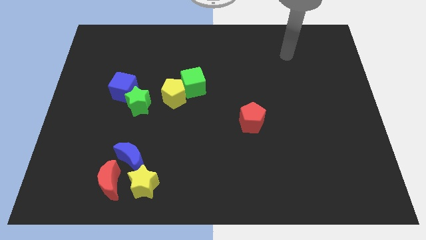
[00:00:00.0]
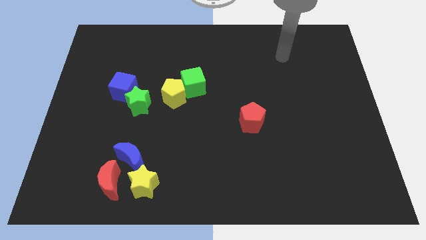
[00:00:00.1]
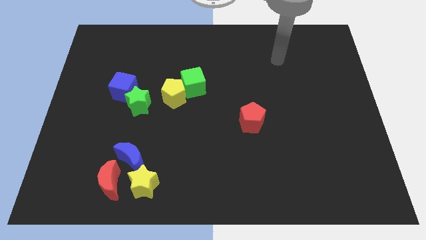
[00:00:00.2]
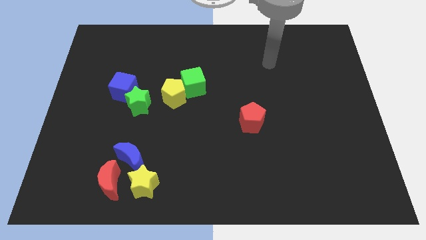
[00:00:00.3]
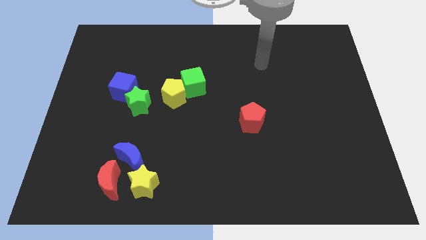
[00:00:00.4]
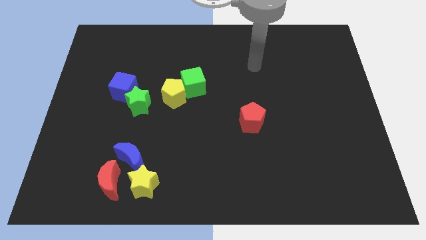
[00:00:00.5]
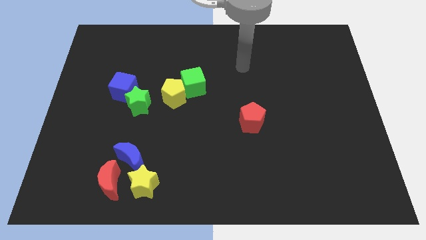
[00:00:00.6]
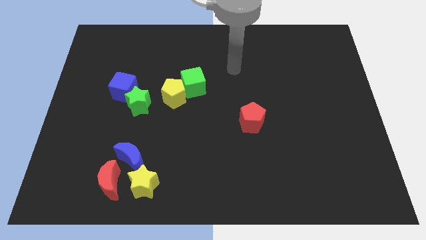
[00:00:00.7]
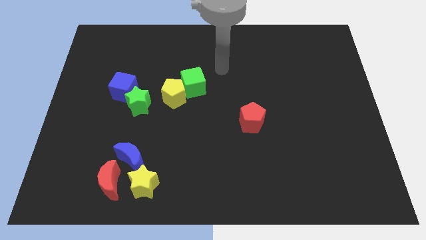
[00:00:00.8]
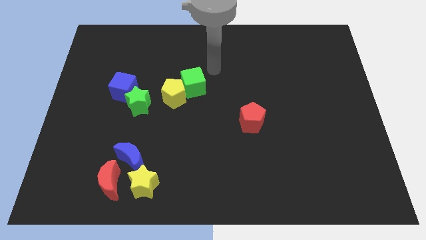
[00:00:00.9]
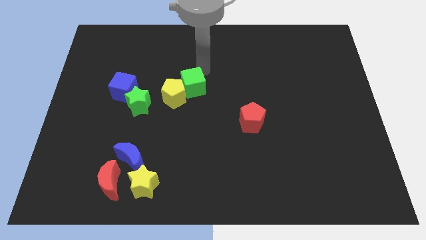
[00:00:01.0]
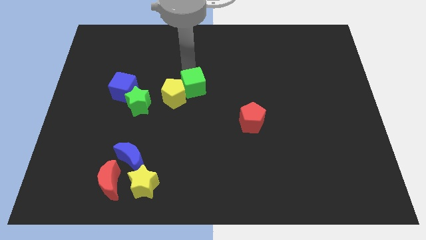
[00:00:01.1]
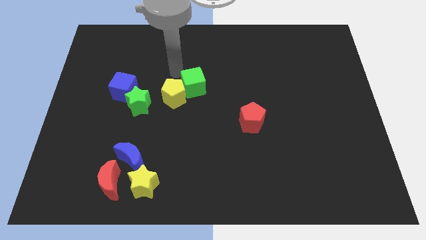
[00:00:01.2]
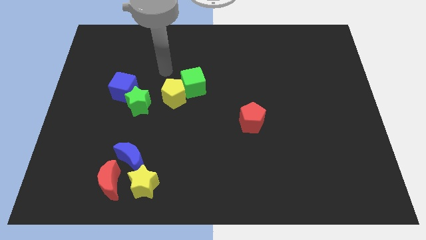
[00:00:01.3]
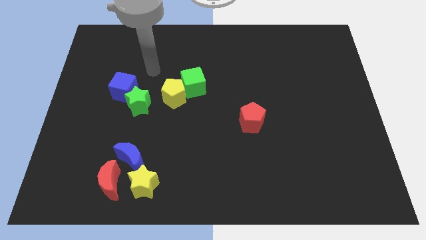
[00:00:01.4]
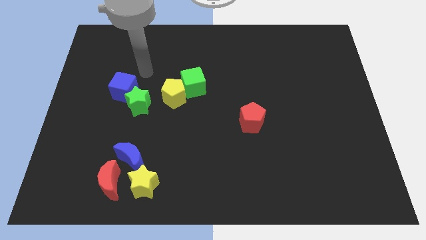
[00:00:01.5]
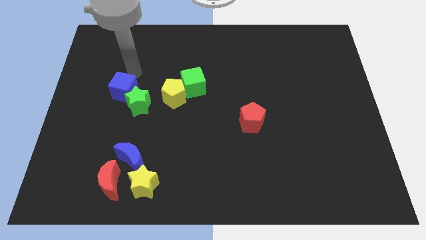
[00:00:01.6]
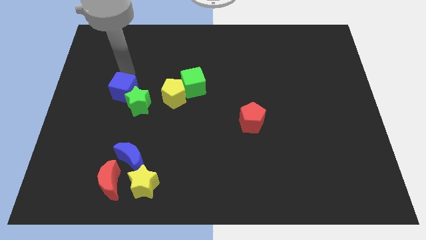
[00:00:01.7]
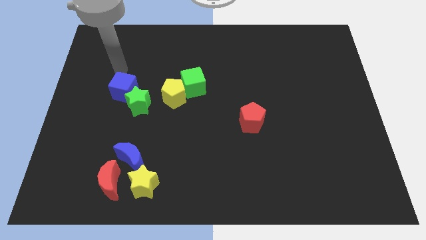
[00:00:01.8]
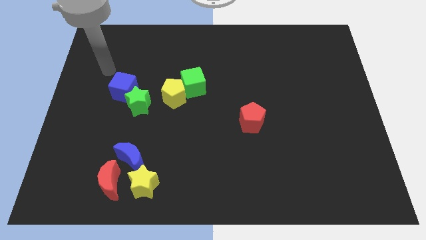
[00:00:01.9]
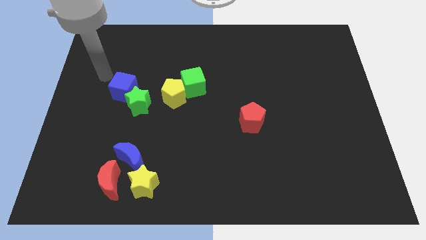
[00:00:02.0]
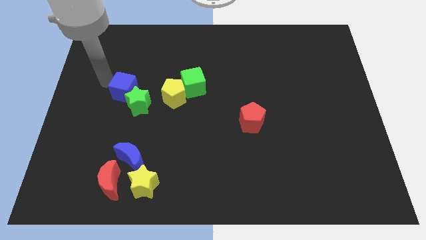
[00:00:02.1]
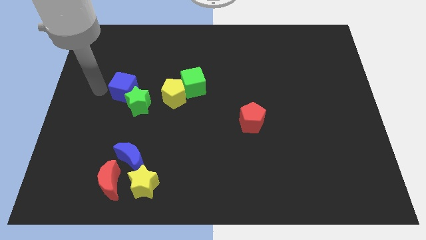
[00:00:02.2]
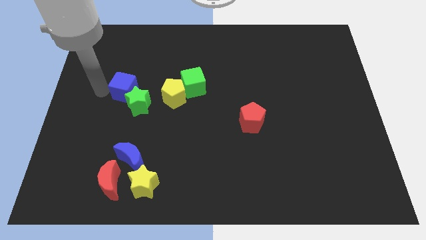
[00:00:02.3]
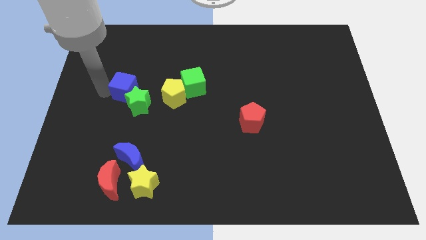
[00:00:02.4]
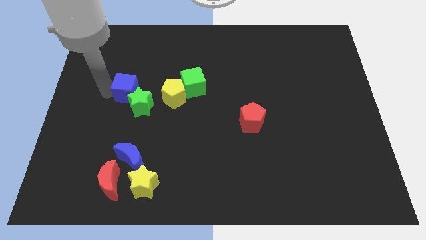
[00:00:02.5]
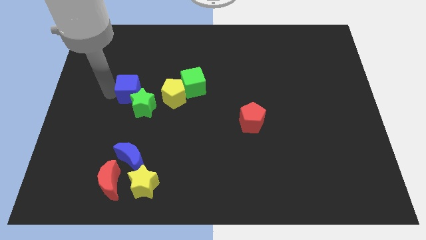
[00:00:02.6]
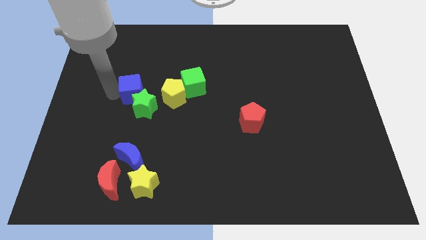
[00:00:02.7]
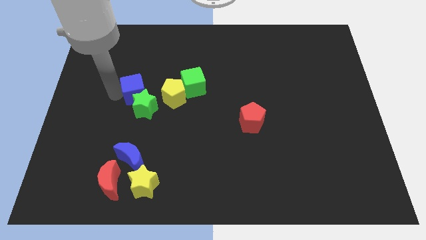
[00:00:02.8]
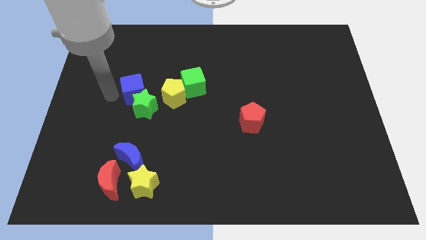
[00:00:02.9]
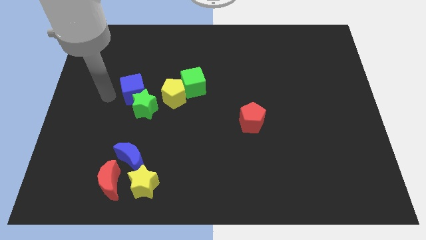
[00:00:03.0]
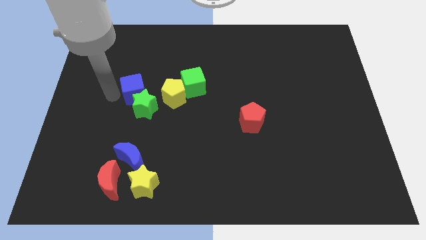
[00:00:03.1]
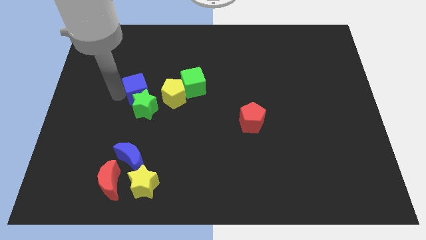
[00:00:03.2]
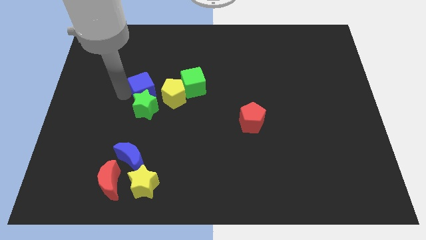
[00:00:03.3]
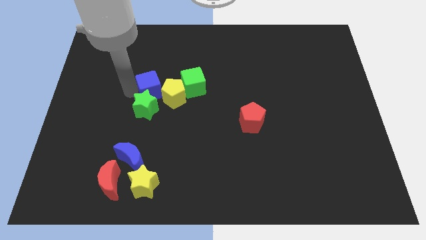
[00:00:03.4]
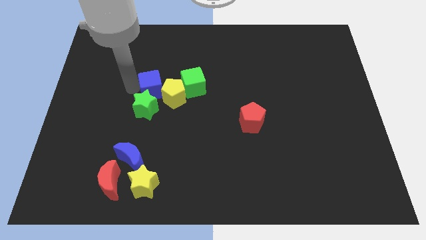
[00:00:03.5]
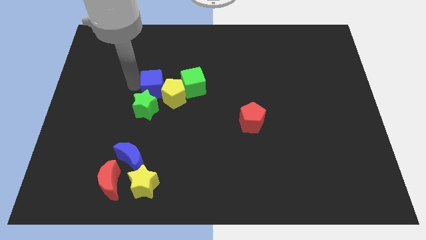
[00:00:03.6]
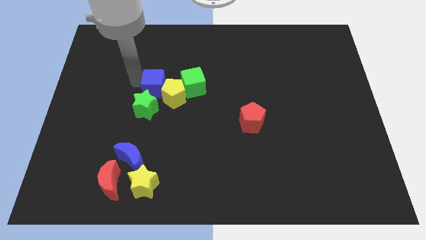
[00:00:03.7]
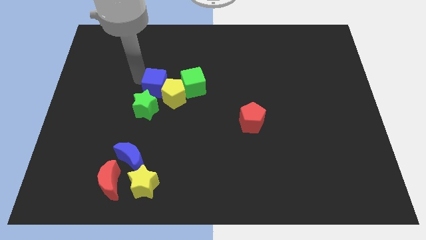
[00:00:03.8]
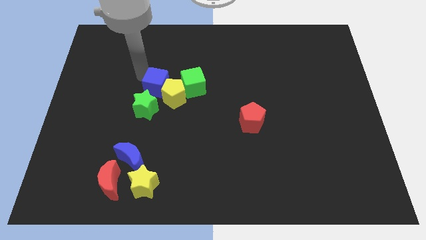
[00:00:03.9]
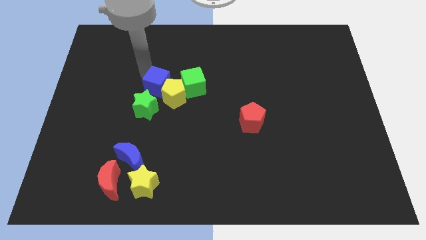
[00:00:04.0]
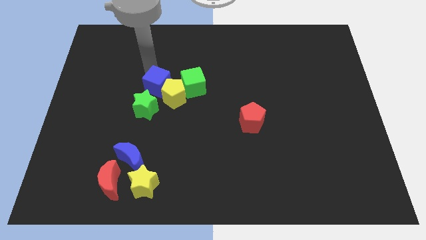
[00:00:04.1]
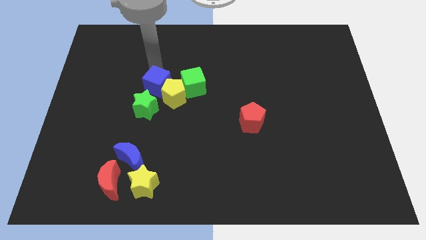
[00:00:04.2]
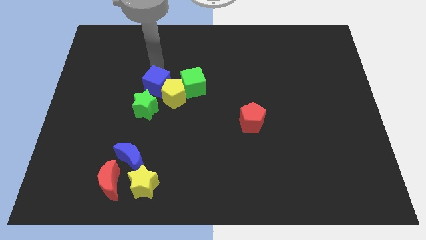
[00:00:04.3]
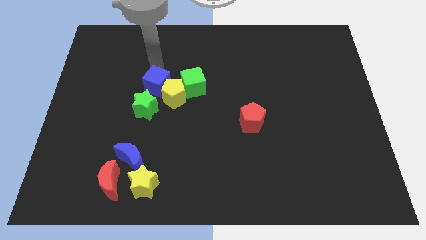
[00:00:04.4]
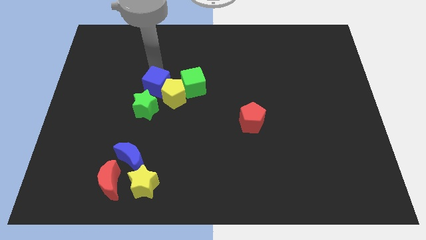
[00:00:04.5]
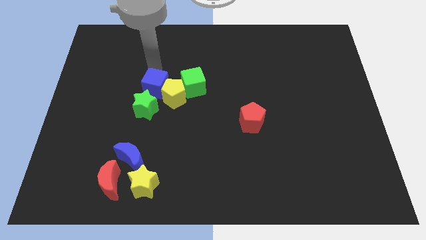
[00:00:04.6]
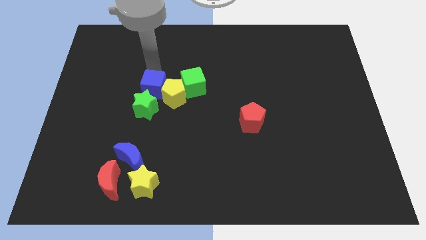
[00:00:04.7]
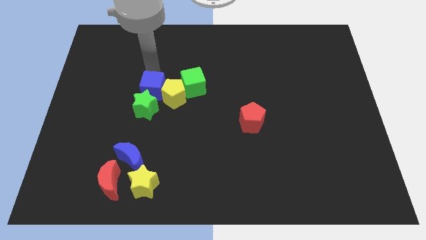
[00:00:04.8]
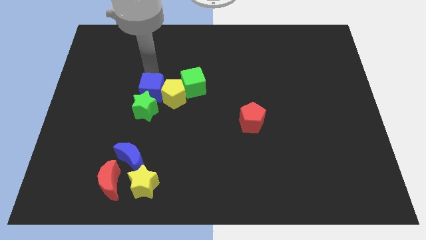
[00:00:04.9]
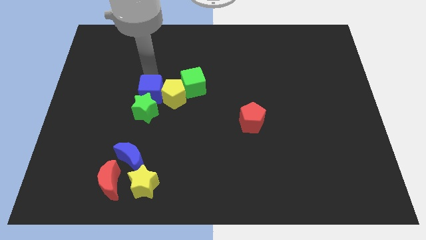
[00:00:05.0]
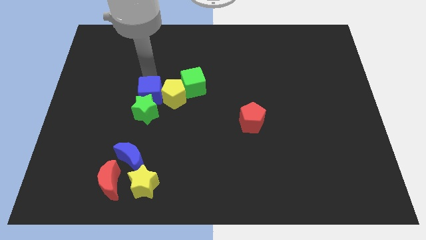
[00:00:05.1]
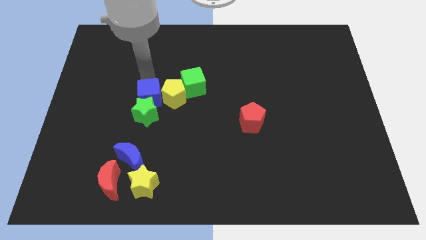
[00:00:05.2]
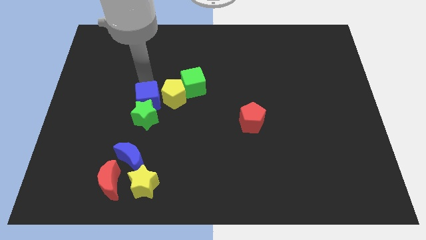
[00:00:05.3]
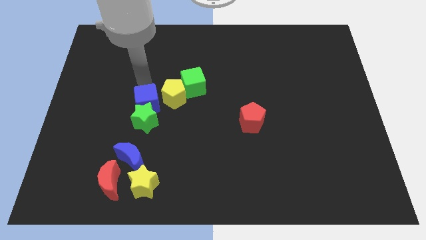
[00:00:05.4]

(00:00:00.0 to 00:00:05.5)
move the blue cube a little diagonally down and to the right

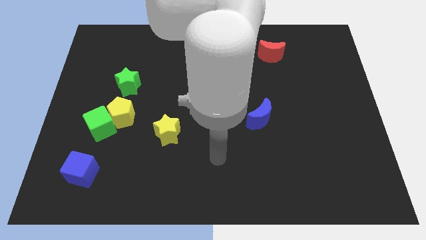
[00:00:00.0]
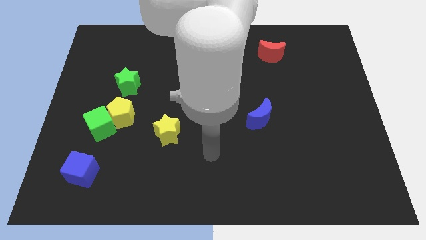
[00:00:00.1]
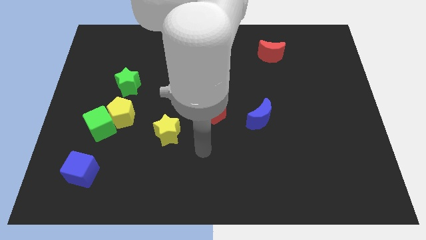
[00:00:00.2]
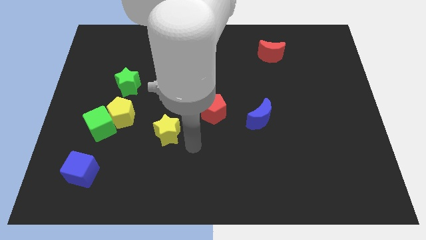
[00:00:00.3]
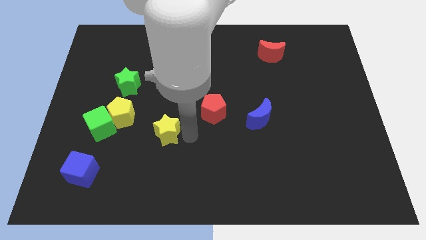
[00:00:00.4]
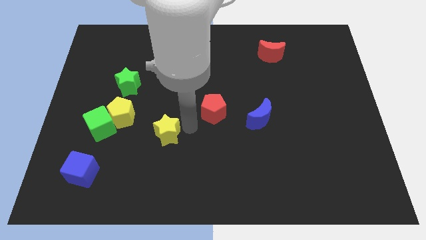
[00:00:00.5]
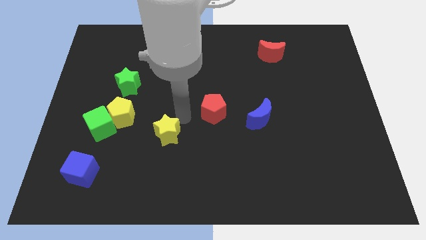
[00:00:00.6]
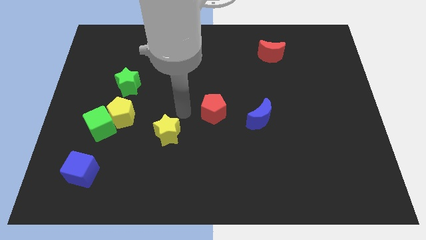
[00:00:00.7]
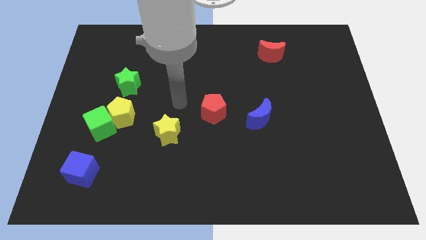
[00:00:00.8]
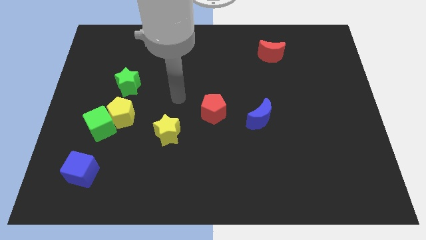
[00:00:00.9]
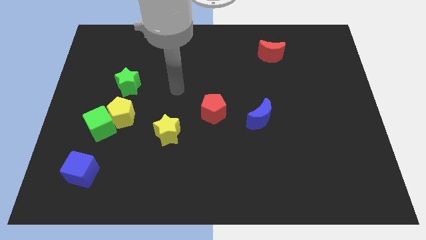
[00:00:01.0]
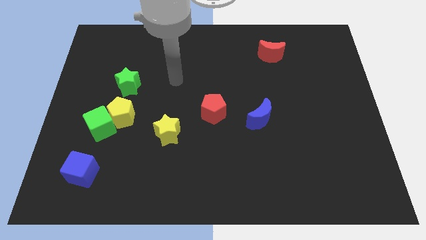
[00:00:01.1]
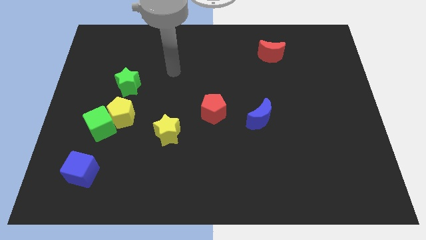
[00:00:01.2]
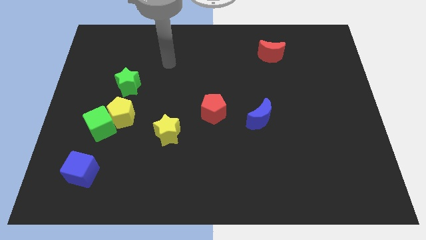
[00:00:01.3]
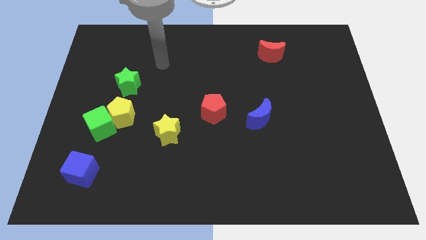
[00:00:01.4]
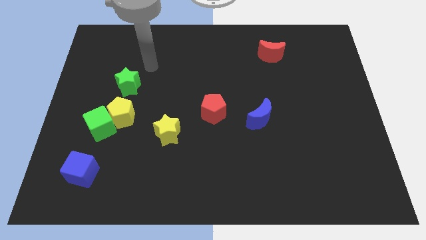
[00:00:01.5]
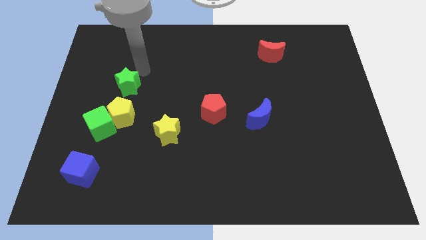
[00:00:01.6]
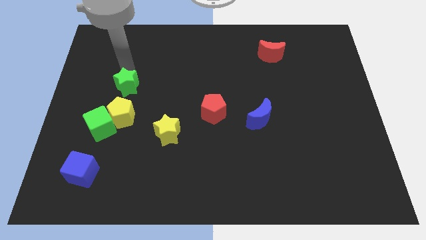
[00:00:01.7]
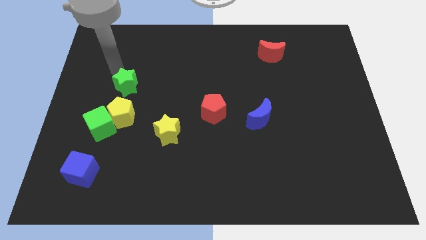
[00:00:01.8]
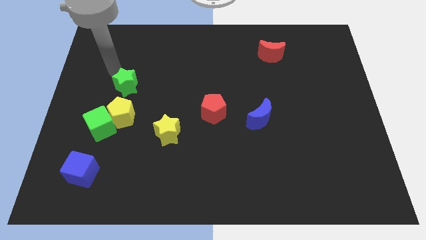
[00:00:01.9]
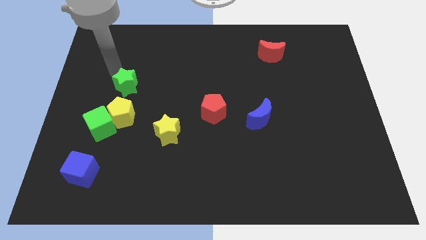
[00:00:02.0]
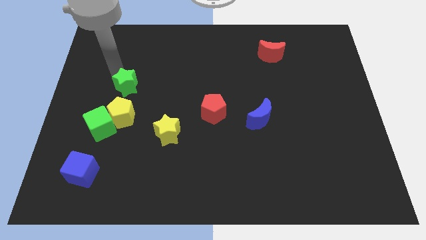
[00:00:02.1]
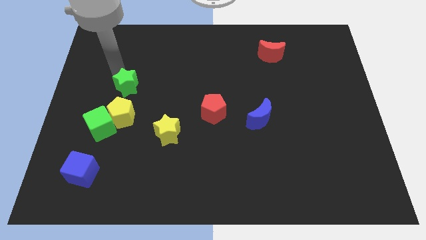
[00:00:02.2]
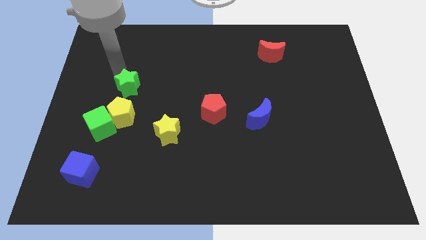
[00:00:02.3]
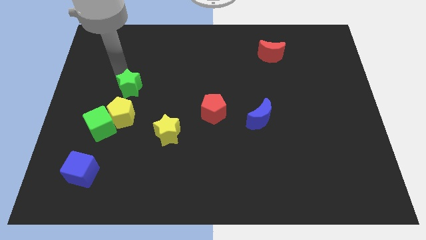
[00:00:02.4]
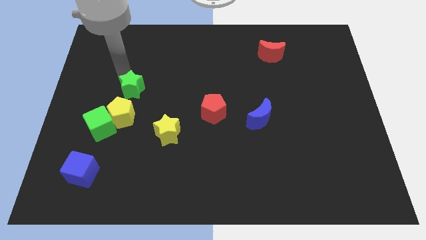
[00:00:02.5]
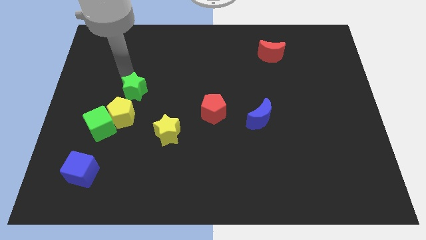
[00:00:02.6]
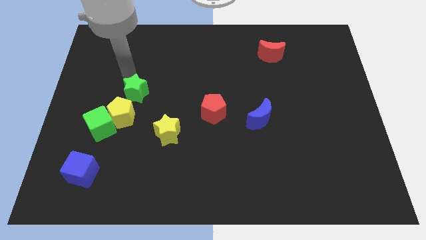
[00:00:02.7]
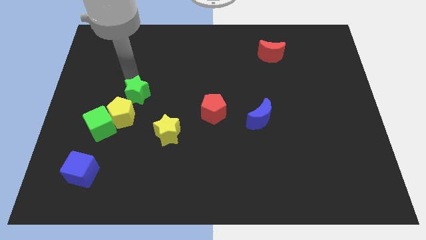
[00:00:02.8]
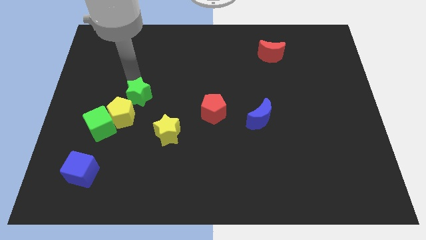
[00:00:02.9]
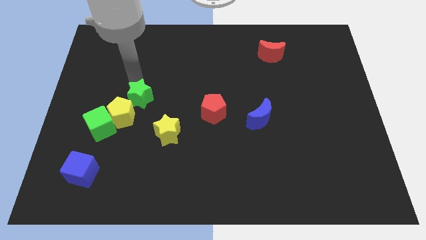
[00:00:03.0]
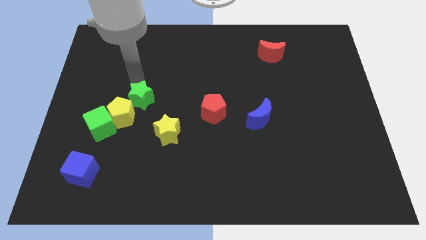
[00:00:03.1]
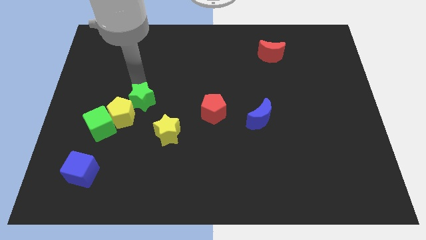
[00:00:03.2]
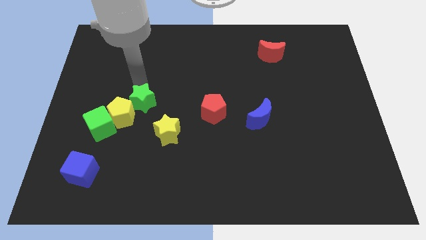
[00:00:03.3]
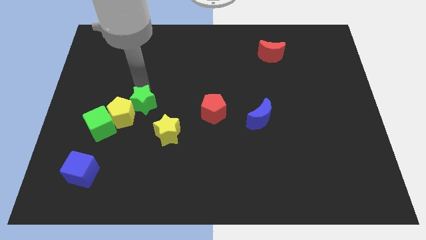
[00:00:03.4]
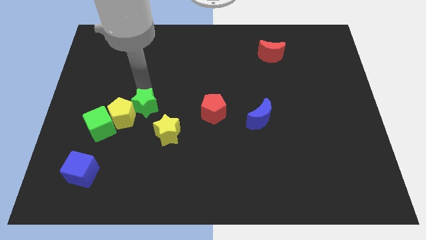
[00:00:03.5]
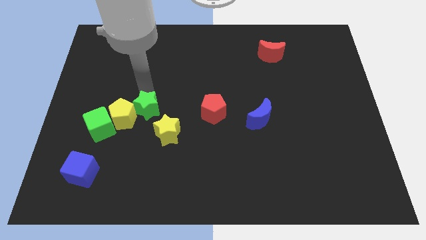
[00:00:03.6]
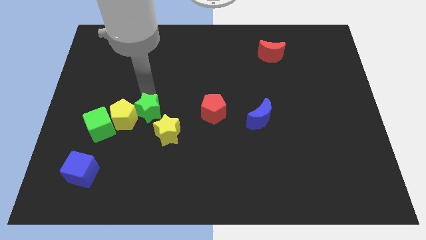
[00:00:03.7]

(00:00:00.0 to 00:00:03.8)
push the green star a little bit downwards
